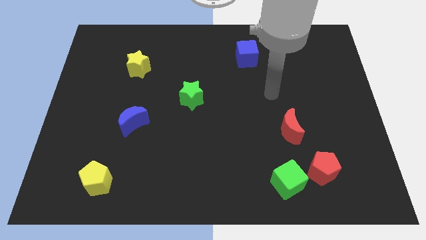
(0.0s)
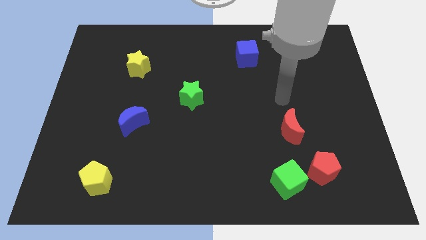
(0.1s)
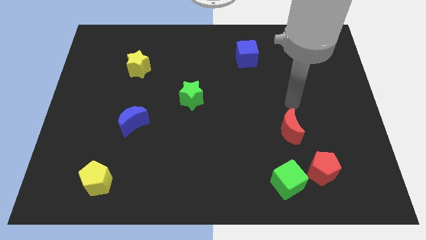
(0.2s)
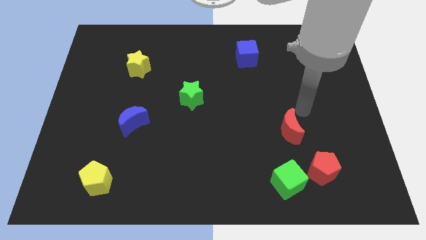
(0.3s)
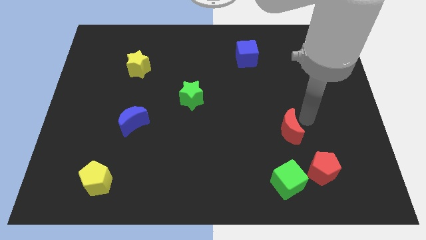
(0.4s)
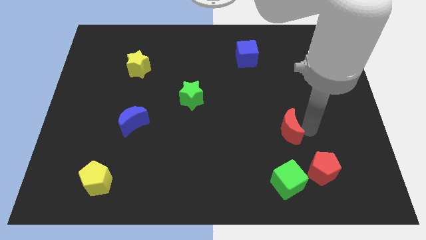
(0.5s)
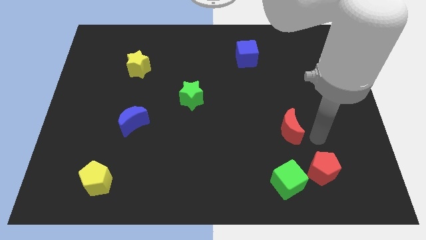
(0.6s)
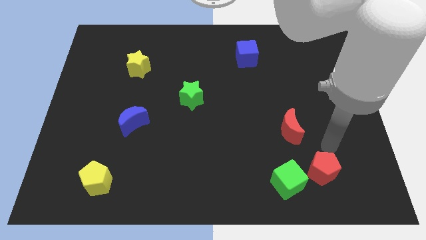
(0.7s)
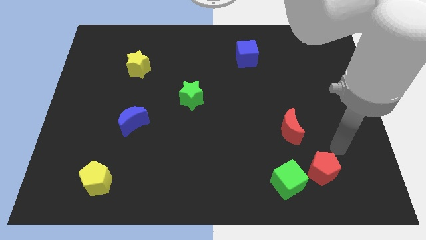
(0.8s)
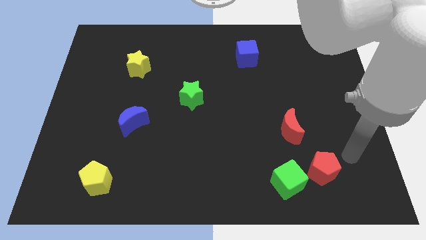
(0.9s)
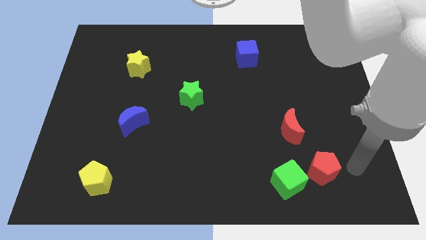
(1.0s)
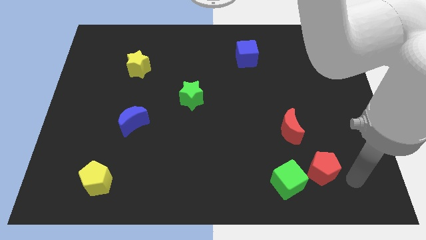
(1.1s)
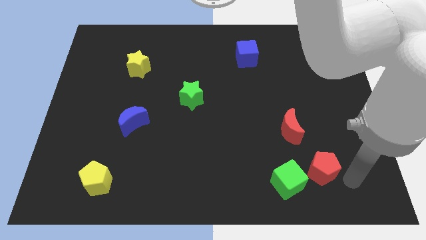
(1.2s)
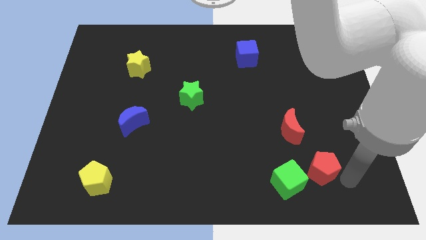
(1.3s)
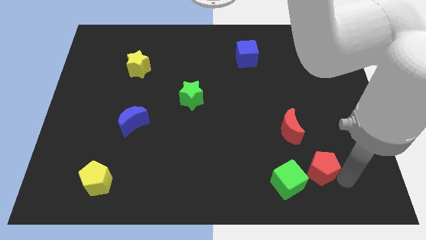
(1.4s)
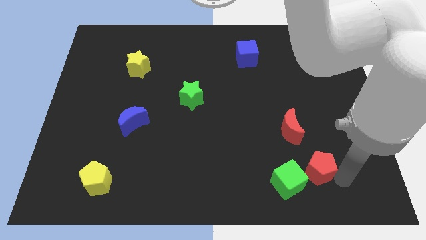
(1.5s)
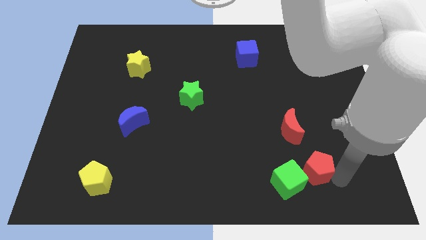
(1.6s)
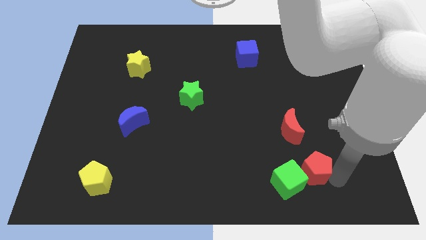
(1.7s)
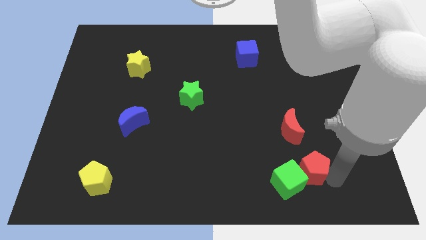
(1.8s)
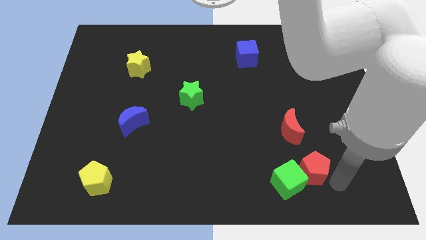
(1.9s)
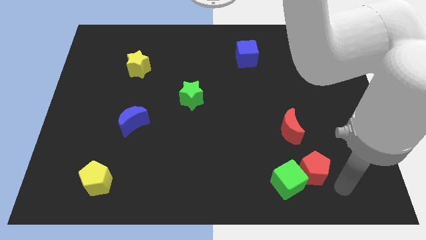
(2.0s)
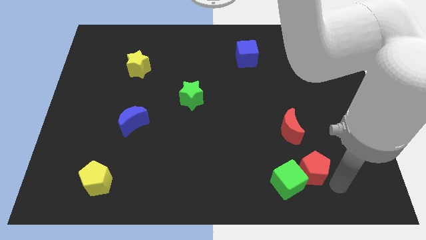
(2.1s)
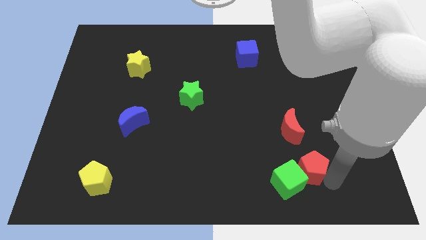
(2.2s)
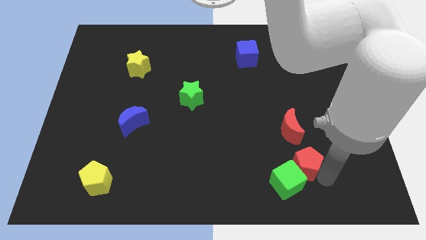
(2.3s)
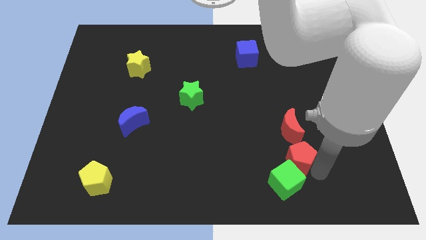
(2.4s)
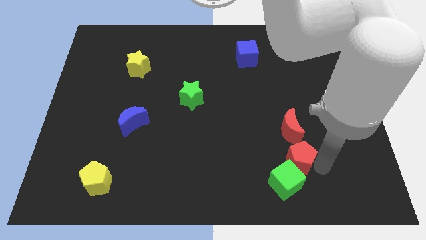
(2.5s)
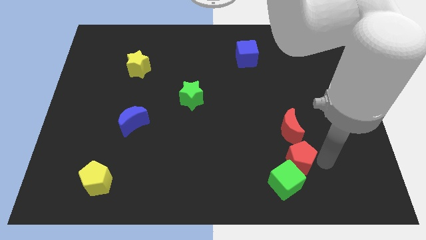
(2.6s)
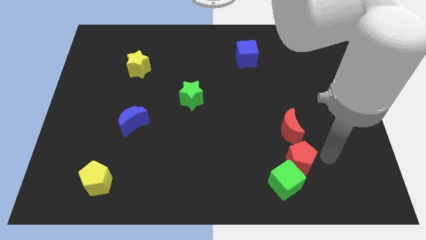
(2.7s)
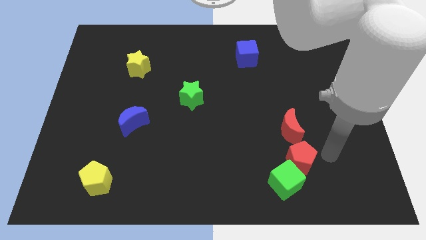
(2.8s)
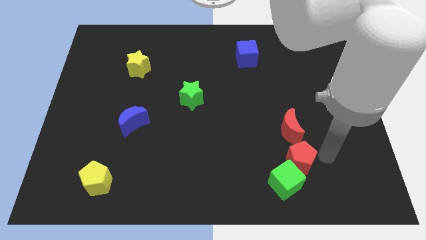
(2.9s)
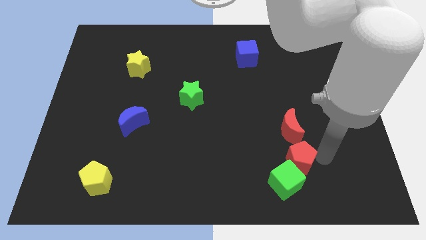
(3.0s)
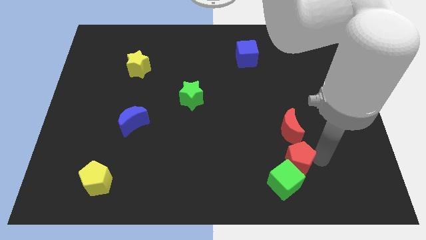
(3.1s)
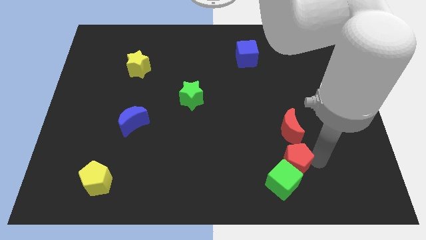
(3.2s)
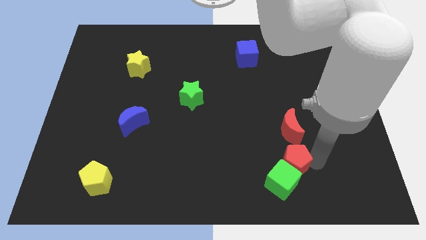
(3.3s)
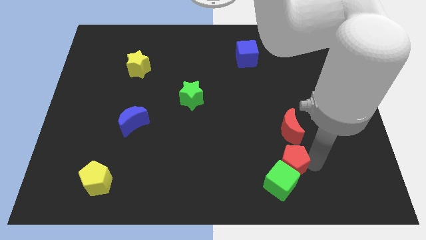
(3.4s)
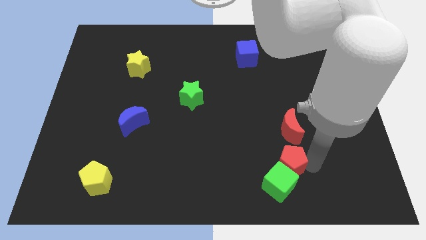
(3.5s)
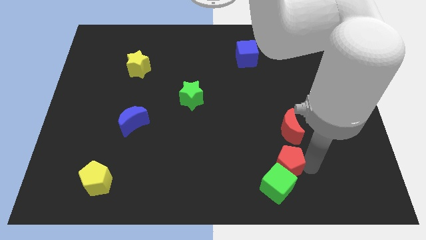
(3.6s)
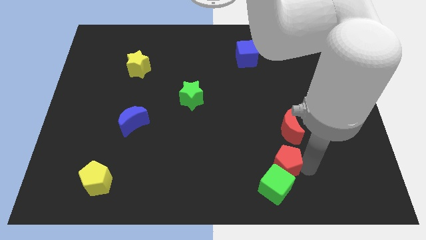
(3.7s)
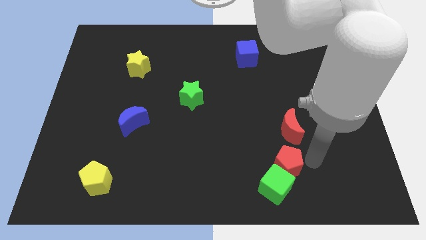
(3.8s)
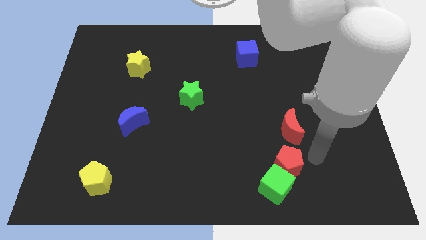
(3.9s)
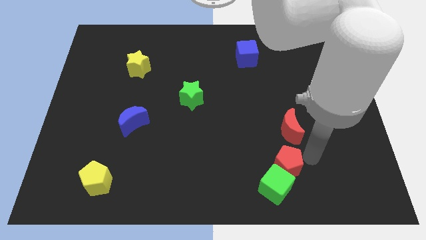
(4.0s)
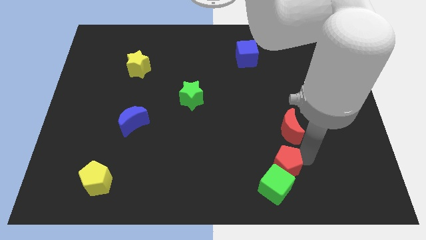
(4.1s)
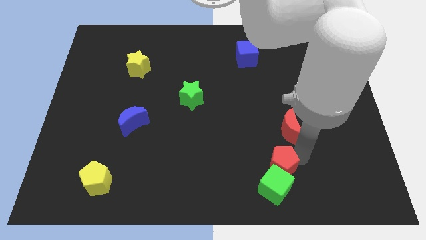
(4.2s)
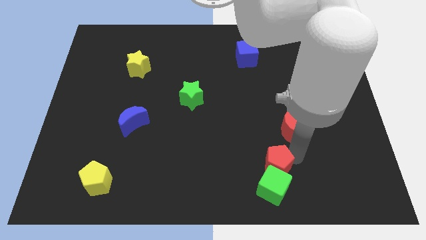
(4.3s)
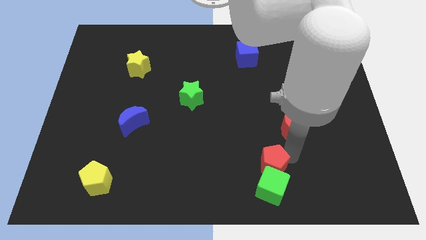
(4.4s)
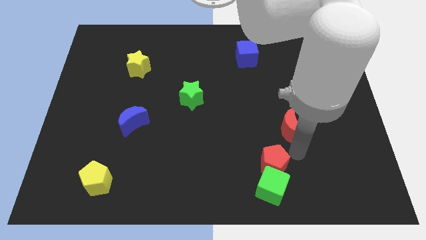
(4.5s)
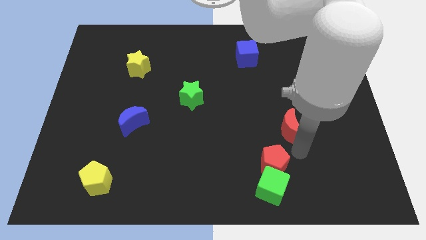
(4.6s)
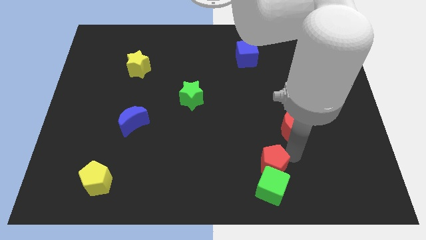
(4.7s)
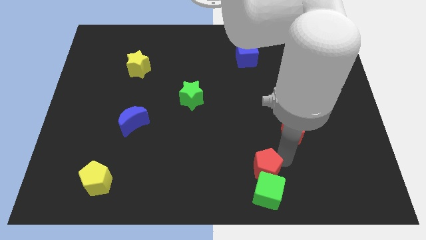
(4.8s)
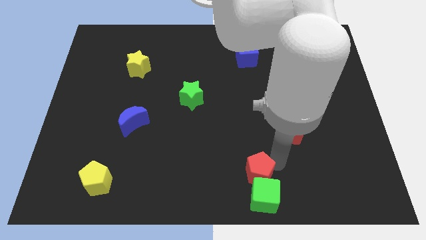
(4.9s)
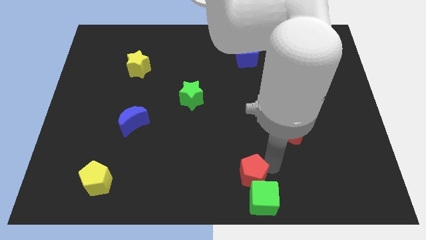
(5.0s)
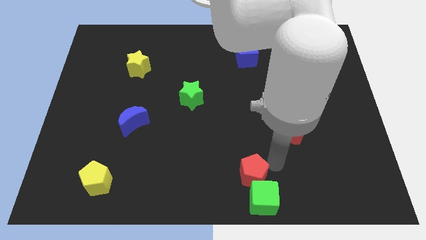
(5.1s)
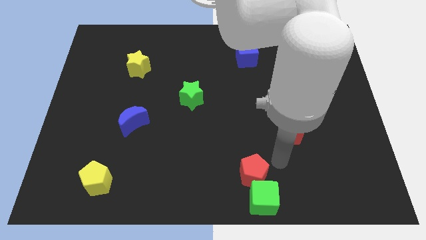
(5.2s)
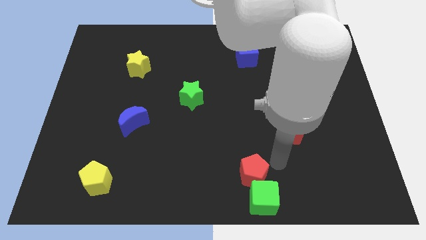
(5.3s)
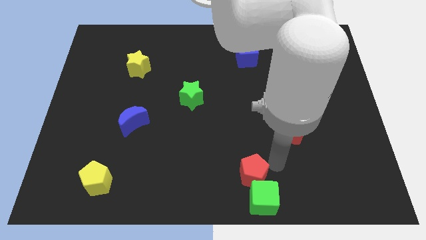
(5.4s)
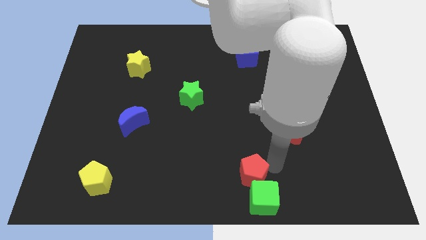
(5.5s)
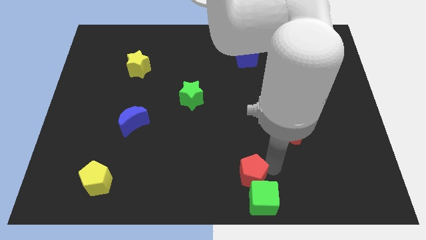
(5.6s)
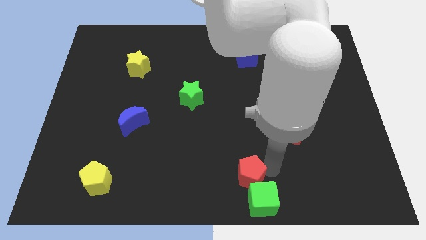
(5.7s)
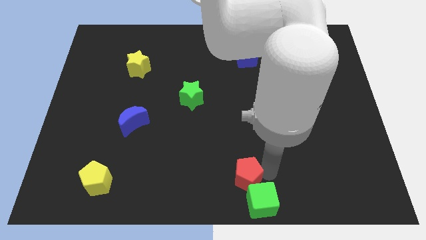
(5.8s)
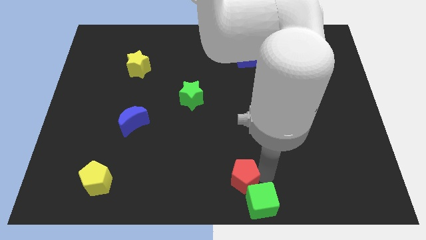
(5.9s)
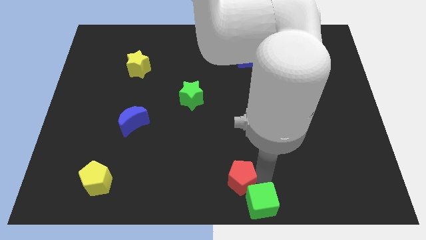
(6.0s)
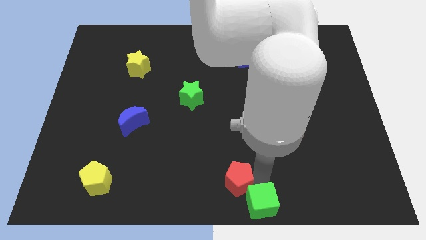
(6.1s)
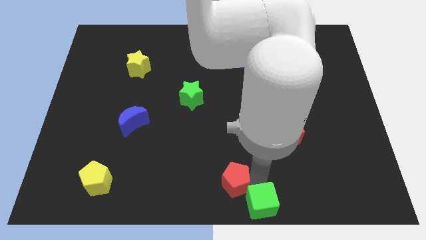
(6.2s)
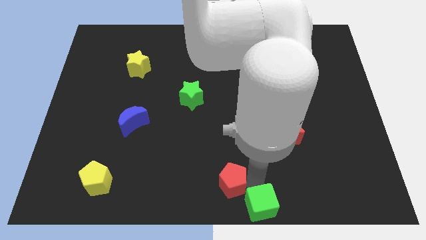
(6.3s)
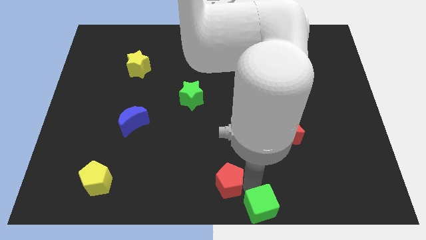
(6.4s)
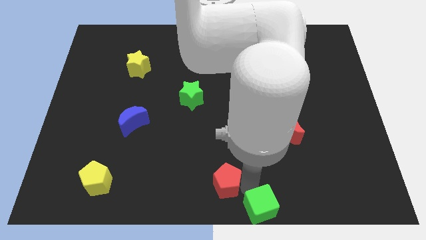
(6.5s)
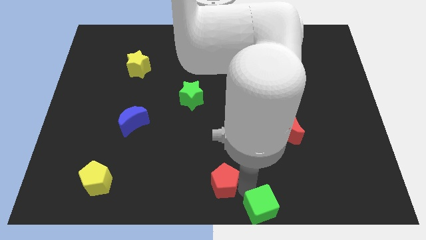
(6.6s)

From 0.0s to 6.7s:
push the red pentagon to the left

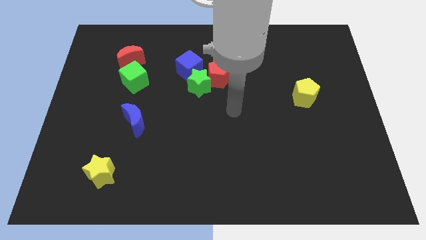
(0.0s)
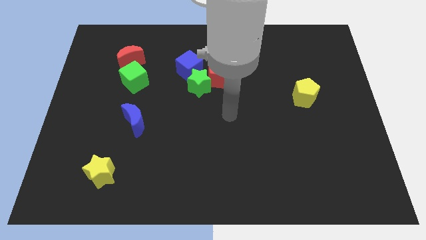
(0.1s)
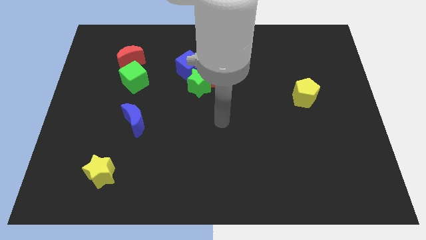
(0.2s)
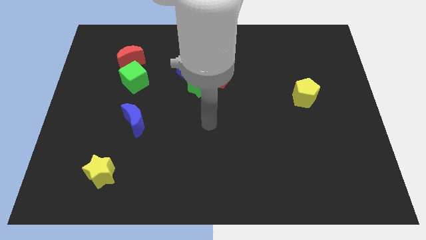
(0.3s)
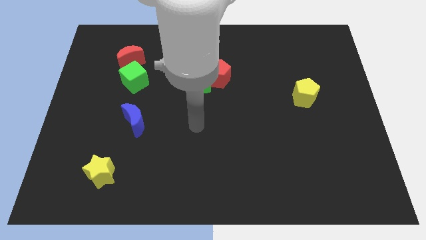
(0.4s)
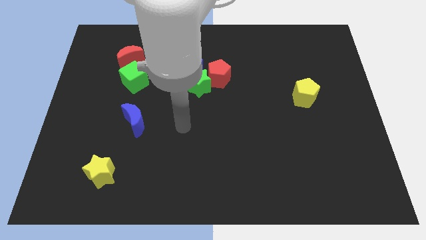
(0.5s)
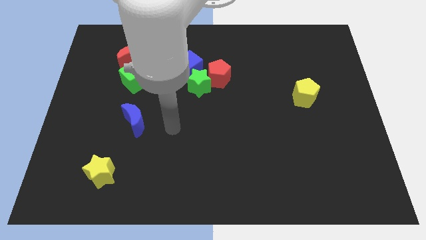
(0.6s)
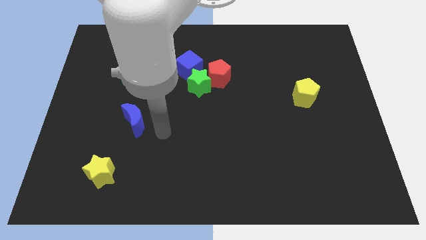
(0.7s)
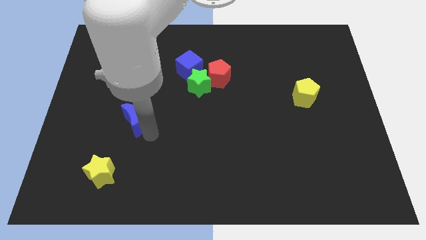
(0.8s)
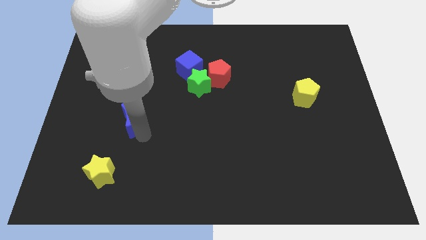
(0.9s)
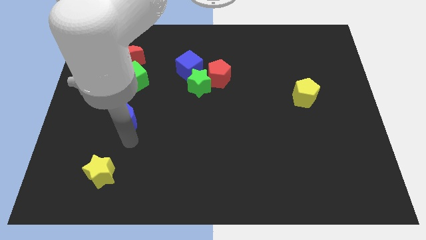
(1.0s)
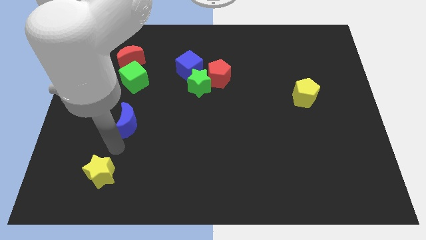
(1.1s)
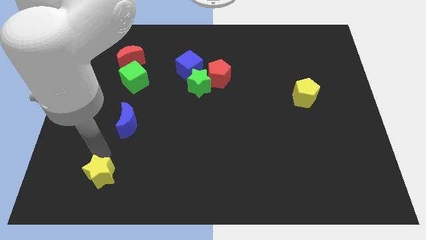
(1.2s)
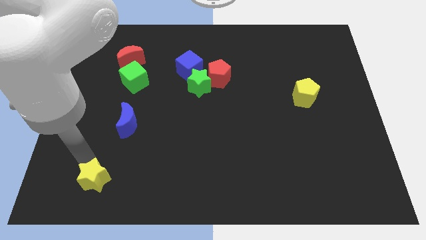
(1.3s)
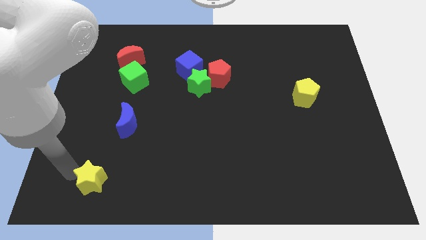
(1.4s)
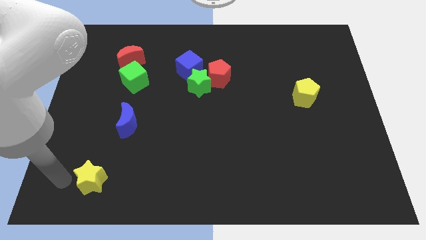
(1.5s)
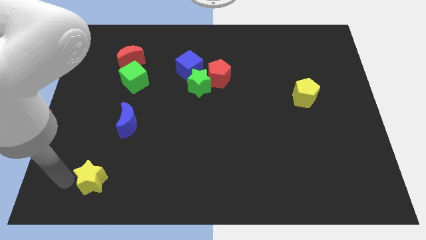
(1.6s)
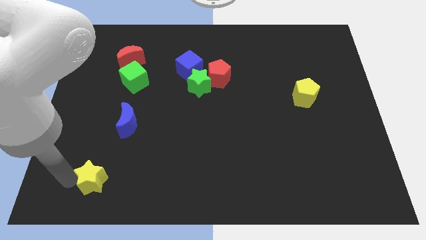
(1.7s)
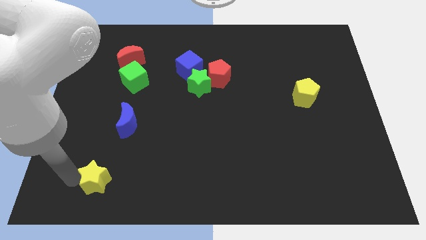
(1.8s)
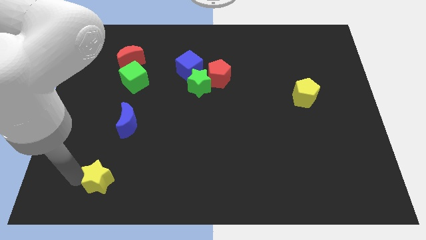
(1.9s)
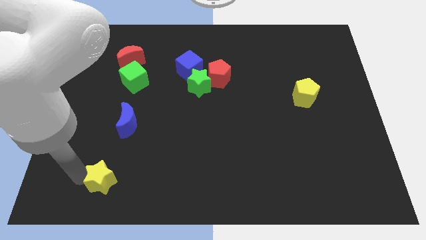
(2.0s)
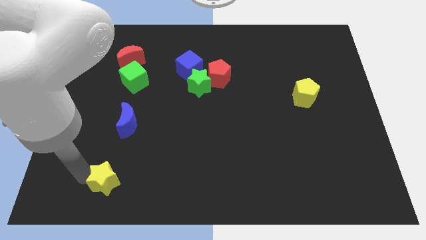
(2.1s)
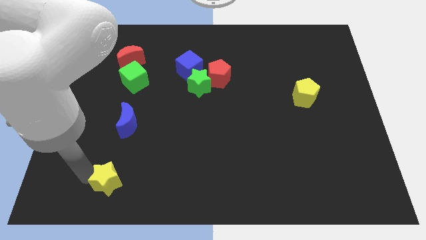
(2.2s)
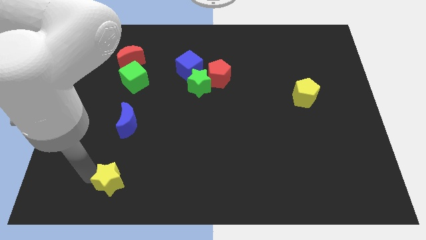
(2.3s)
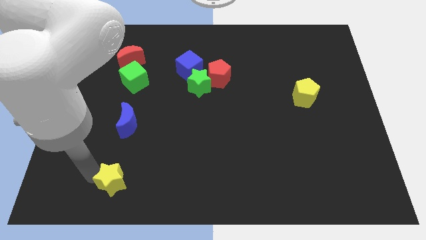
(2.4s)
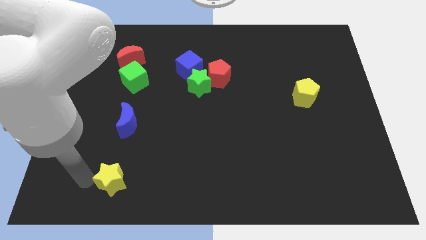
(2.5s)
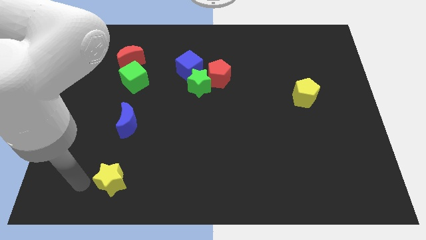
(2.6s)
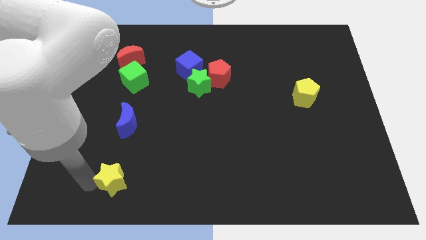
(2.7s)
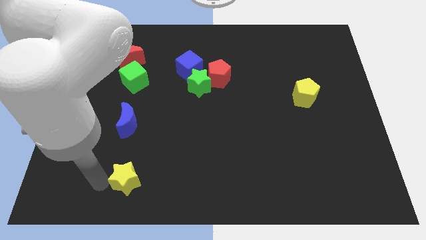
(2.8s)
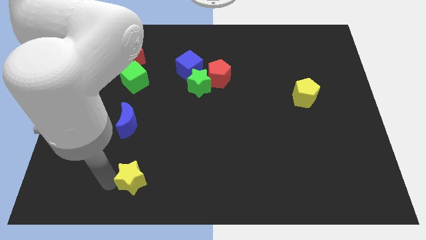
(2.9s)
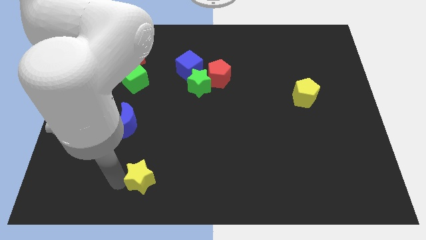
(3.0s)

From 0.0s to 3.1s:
slightly push the yellow star to the right
